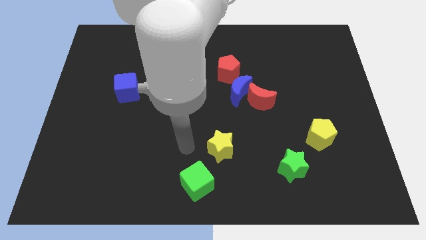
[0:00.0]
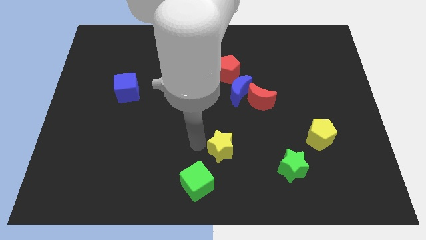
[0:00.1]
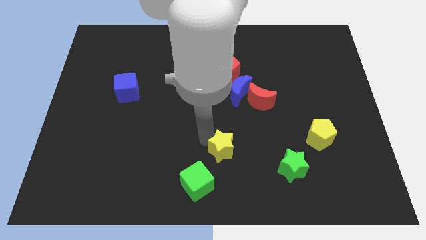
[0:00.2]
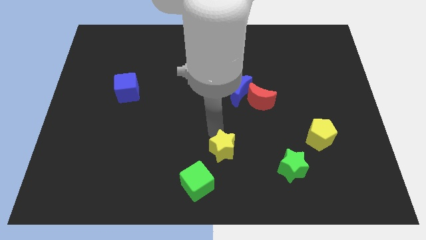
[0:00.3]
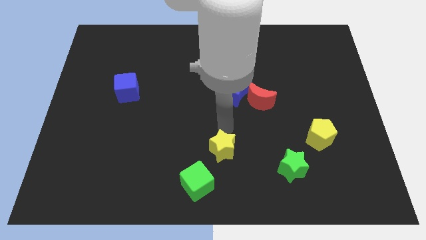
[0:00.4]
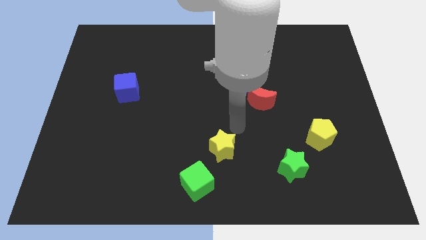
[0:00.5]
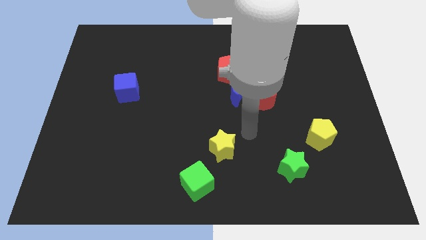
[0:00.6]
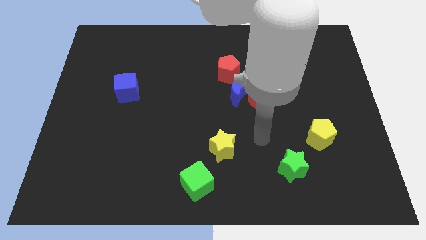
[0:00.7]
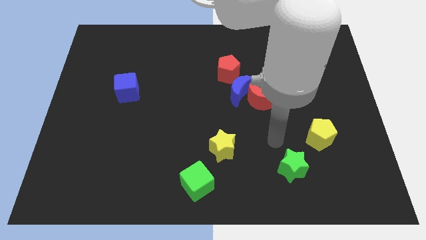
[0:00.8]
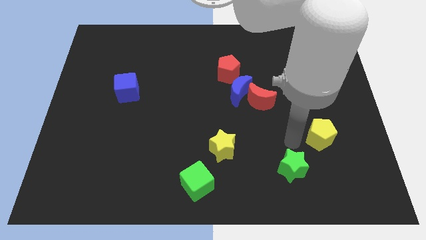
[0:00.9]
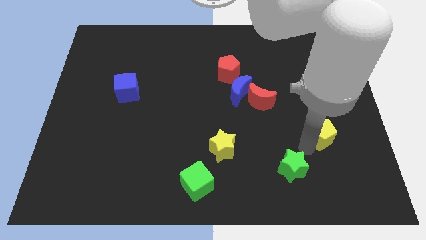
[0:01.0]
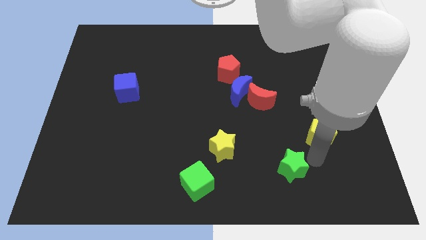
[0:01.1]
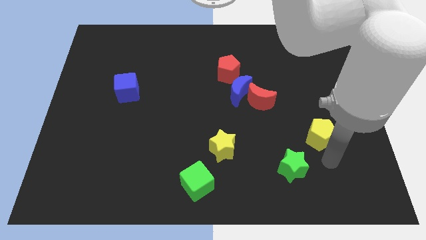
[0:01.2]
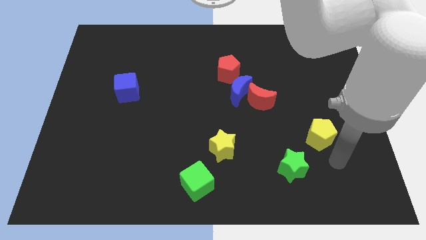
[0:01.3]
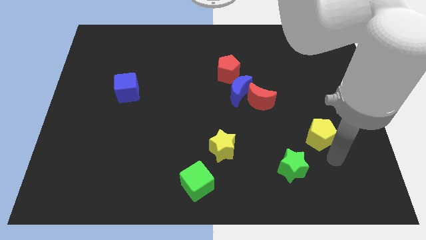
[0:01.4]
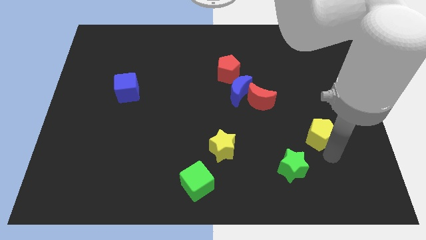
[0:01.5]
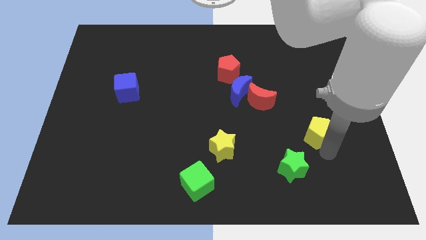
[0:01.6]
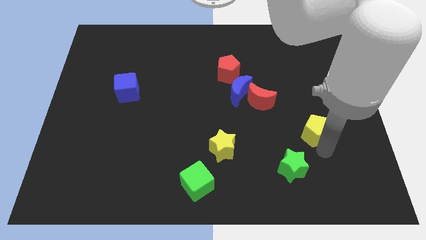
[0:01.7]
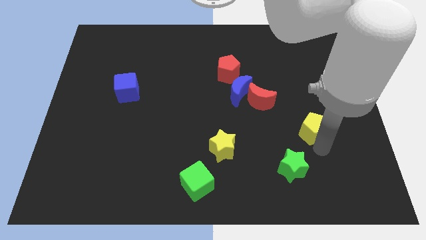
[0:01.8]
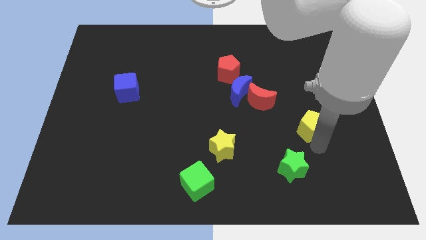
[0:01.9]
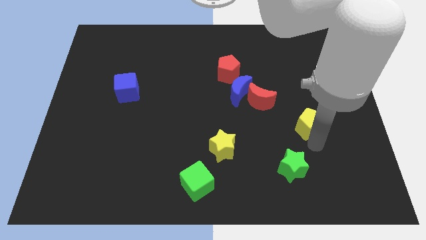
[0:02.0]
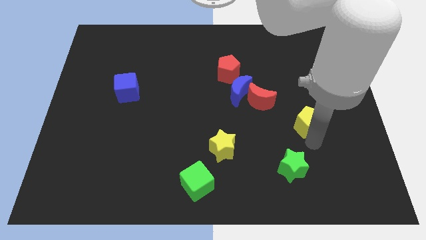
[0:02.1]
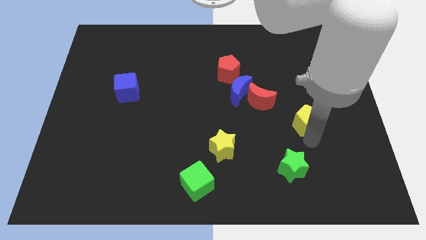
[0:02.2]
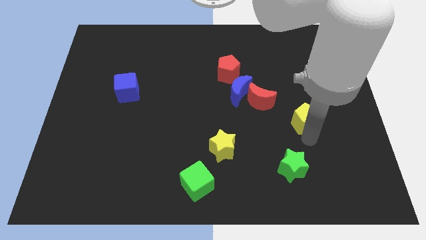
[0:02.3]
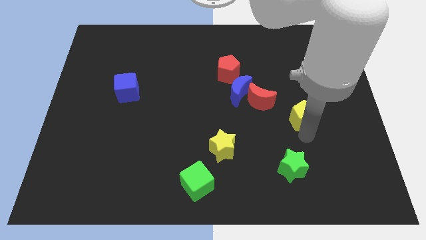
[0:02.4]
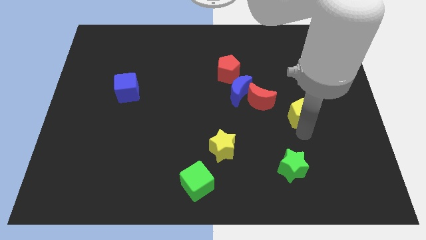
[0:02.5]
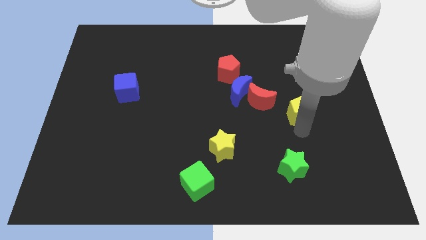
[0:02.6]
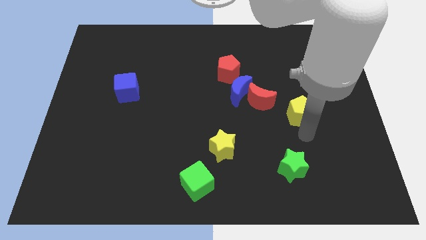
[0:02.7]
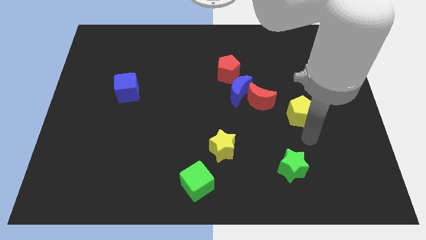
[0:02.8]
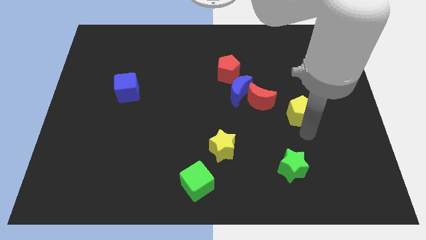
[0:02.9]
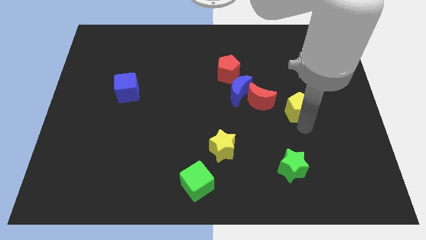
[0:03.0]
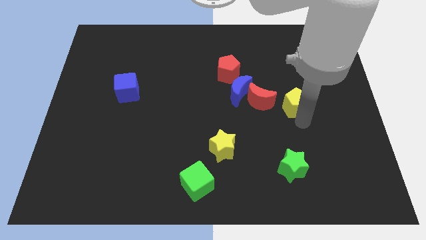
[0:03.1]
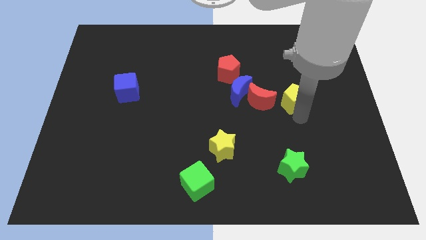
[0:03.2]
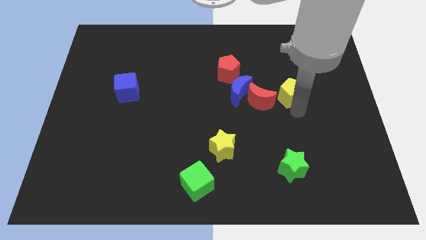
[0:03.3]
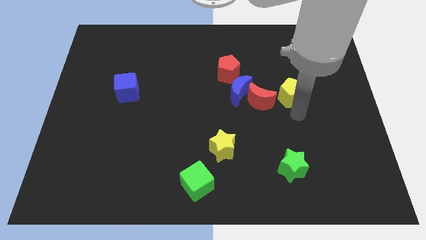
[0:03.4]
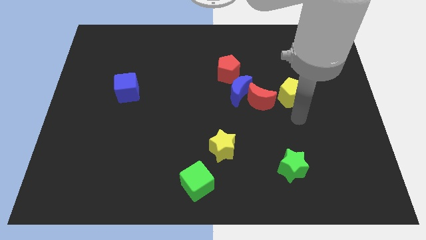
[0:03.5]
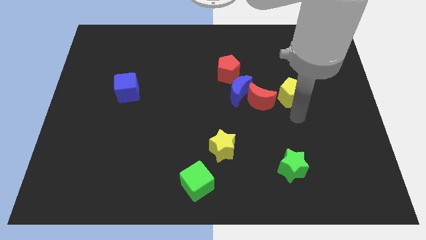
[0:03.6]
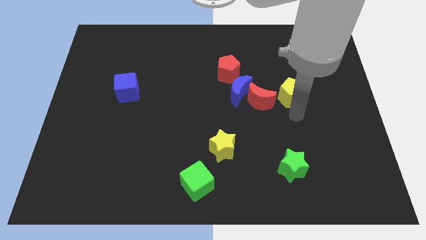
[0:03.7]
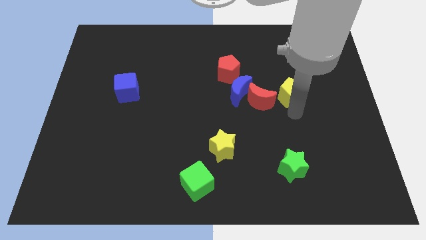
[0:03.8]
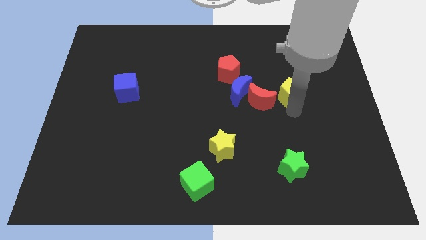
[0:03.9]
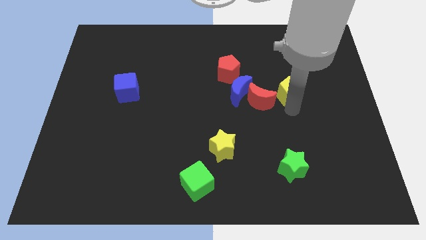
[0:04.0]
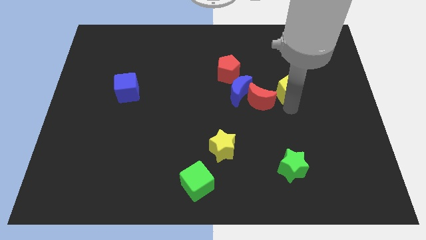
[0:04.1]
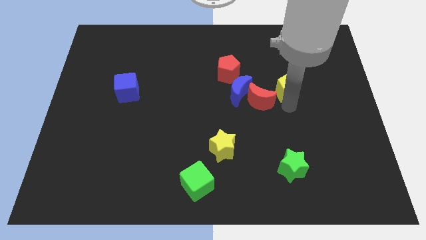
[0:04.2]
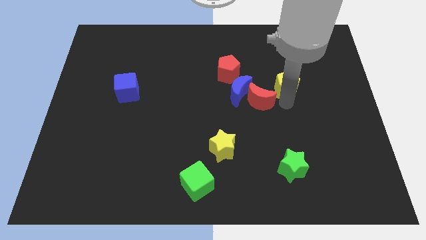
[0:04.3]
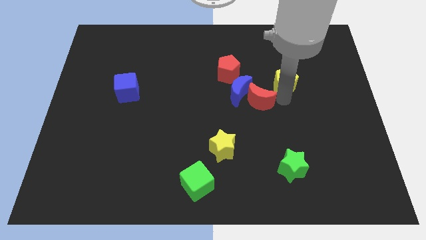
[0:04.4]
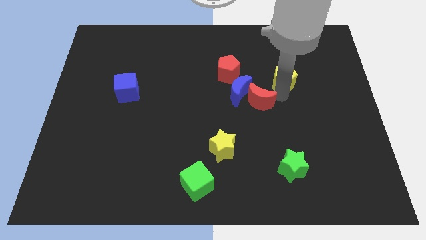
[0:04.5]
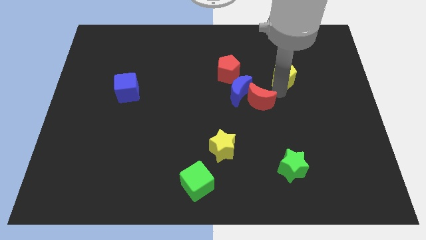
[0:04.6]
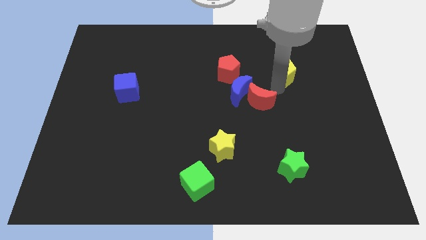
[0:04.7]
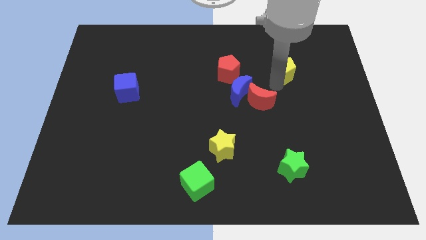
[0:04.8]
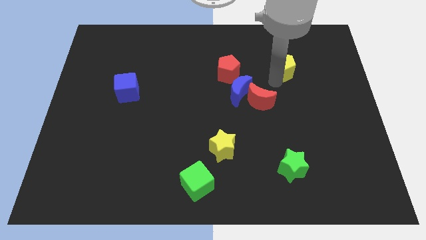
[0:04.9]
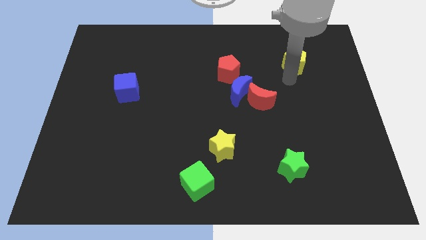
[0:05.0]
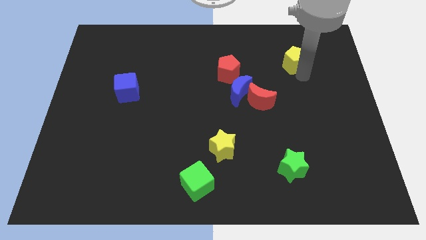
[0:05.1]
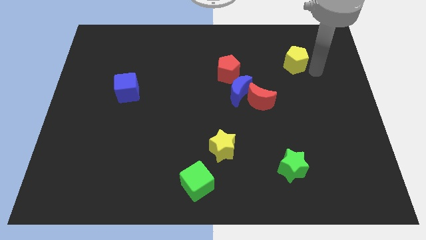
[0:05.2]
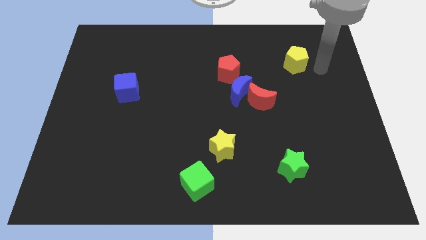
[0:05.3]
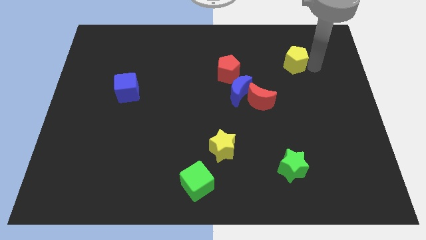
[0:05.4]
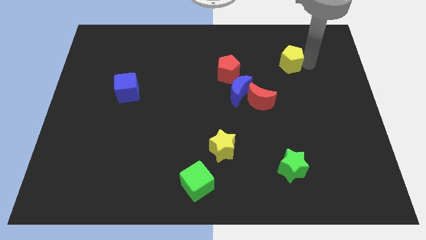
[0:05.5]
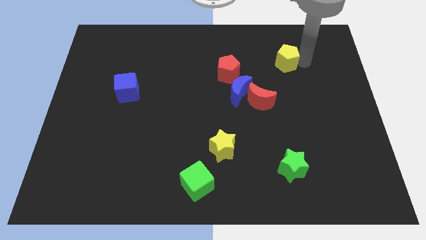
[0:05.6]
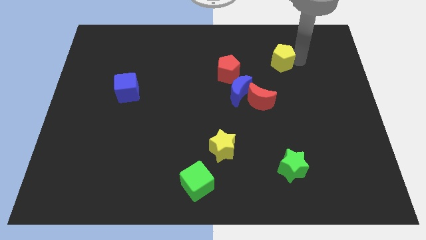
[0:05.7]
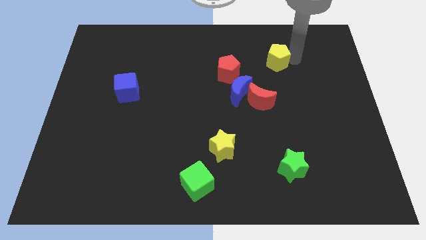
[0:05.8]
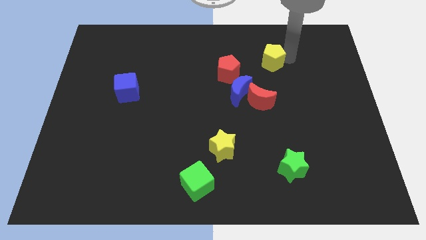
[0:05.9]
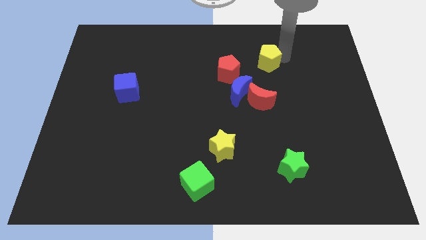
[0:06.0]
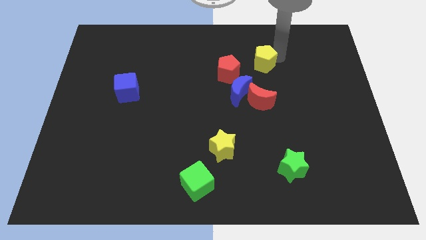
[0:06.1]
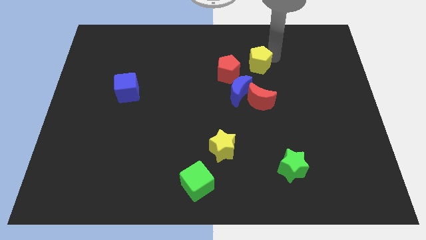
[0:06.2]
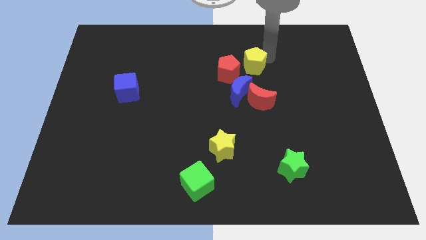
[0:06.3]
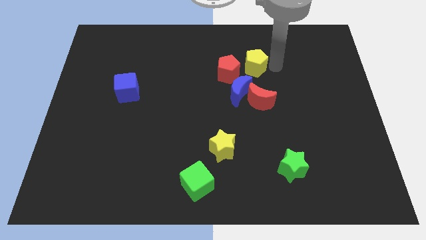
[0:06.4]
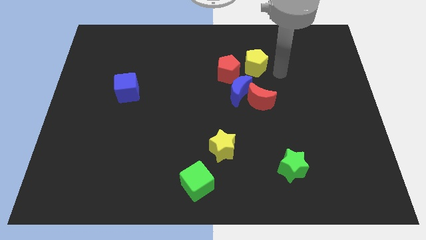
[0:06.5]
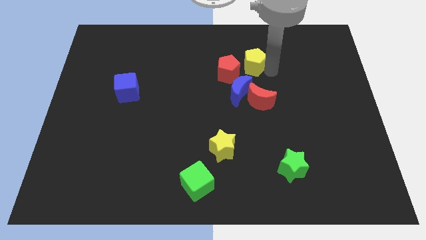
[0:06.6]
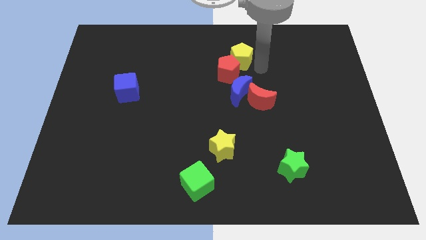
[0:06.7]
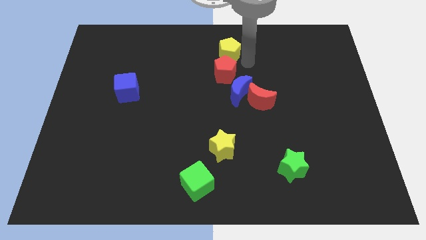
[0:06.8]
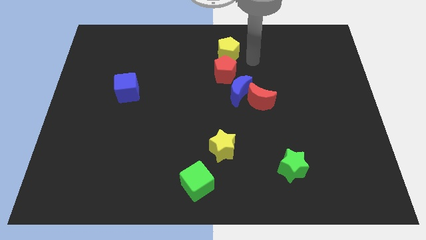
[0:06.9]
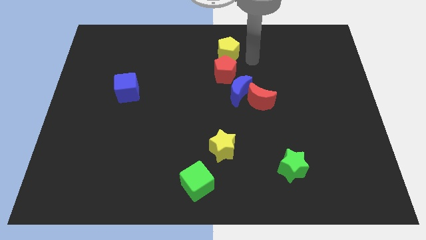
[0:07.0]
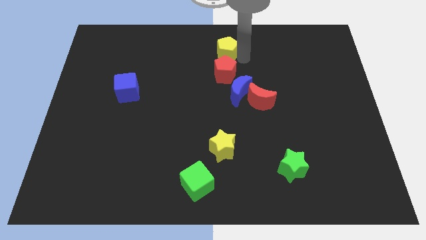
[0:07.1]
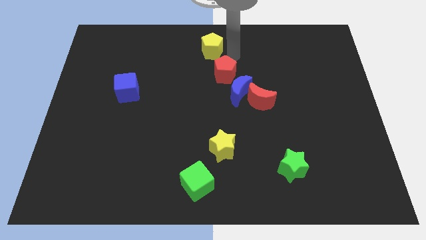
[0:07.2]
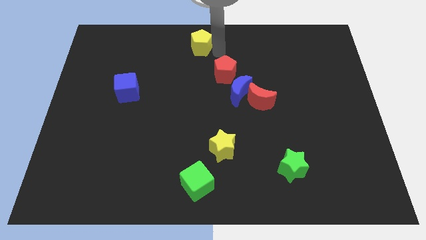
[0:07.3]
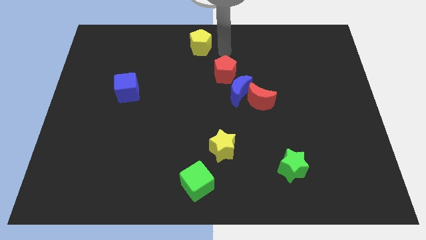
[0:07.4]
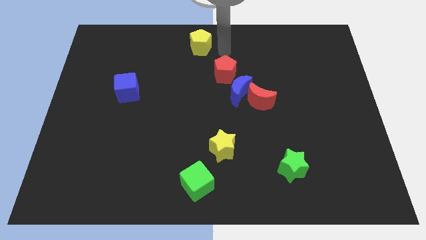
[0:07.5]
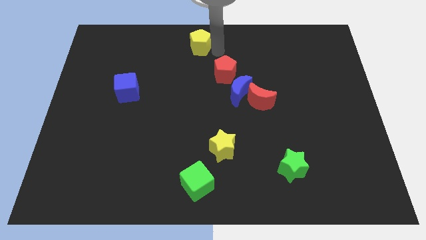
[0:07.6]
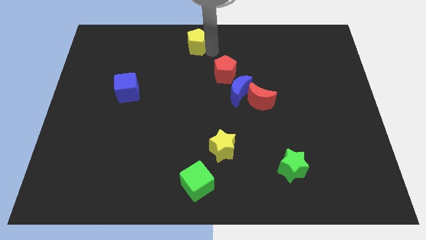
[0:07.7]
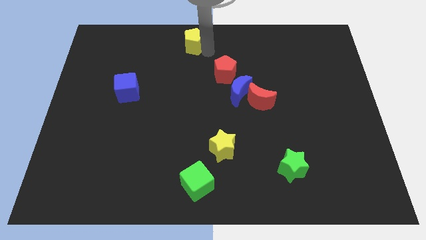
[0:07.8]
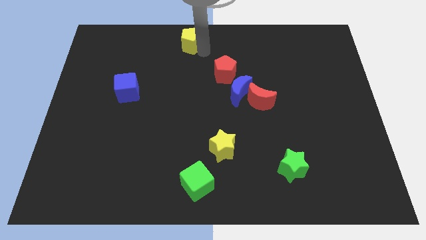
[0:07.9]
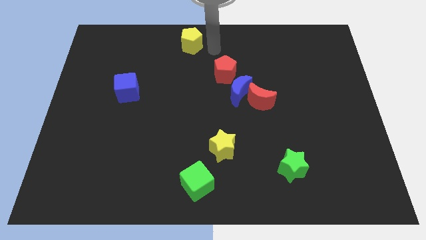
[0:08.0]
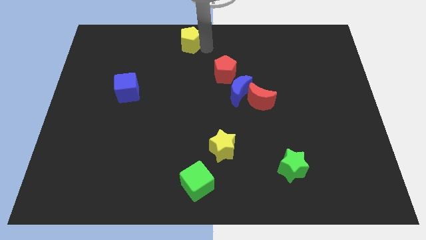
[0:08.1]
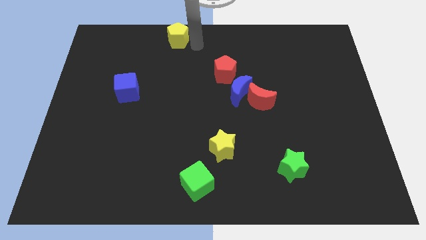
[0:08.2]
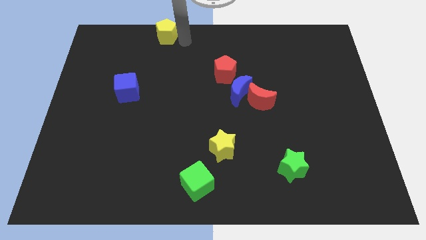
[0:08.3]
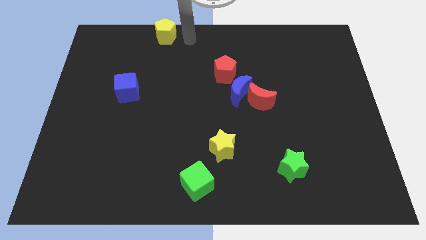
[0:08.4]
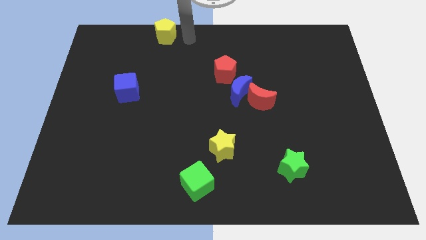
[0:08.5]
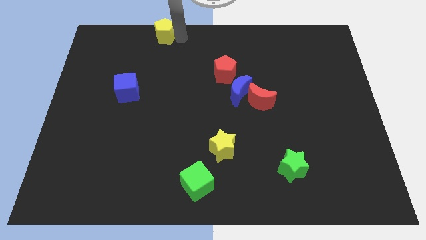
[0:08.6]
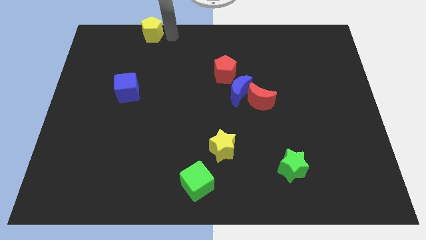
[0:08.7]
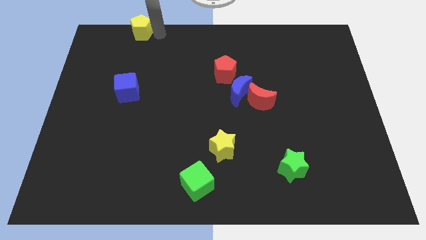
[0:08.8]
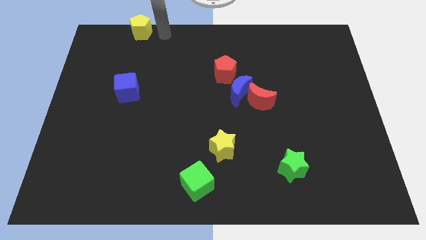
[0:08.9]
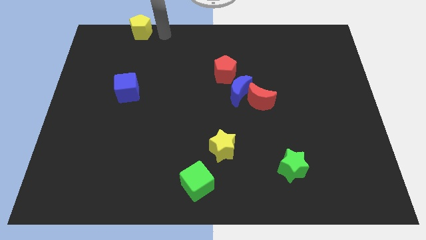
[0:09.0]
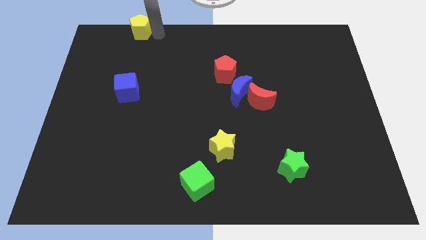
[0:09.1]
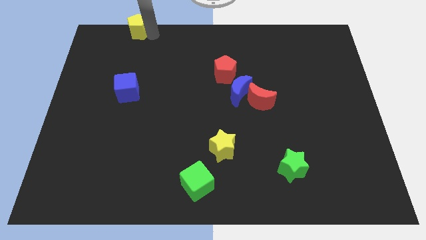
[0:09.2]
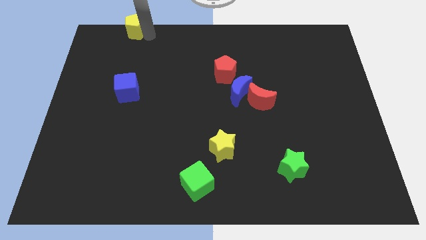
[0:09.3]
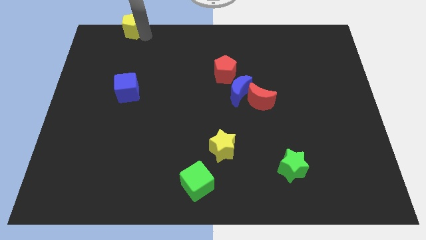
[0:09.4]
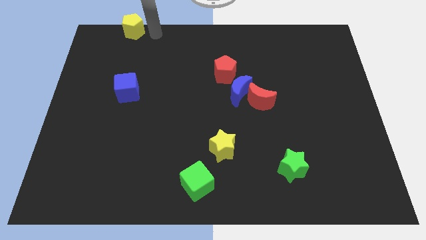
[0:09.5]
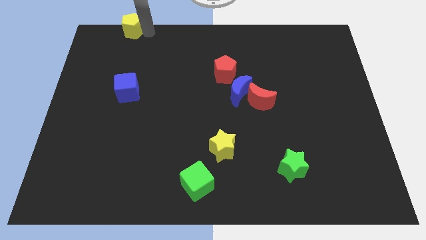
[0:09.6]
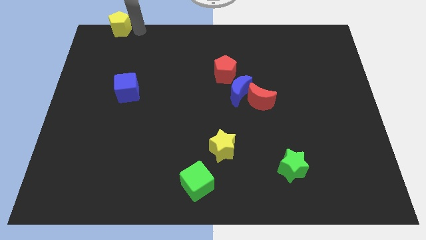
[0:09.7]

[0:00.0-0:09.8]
slide the yellow pentagon to the top left of the board
